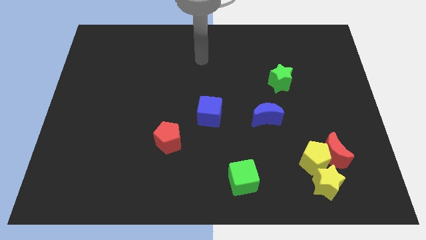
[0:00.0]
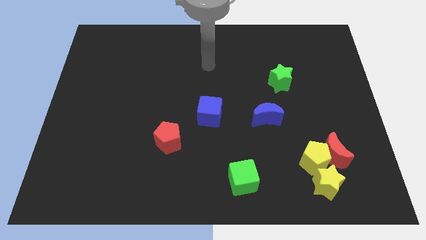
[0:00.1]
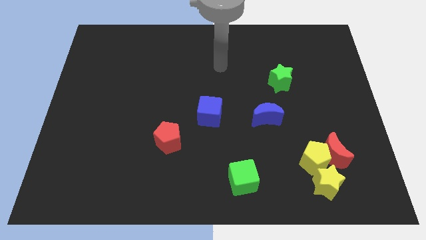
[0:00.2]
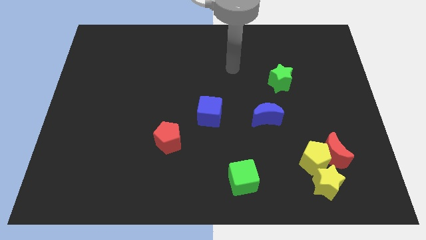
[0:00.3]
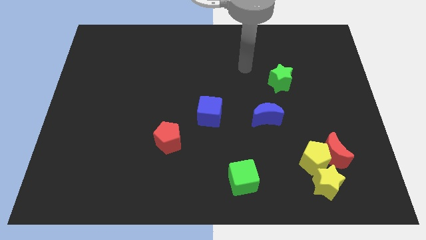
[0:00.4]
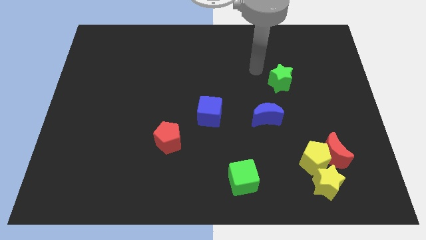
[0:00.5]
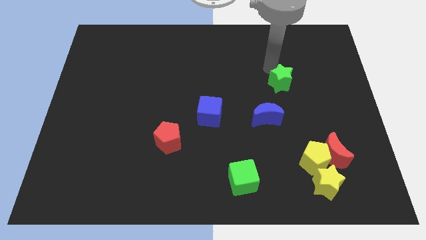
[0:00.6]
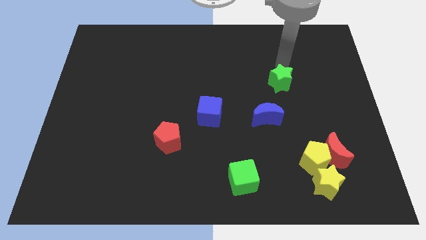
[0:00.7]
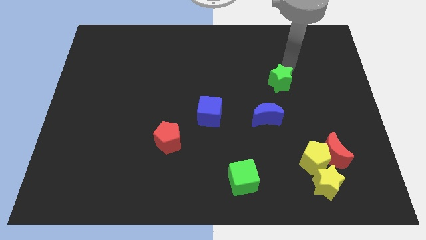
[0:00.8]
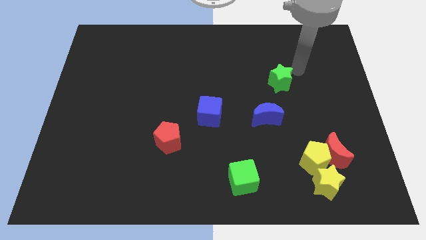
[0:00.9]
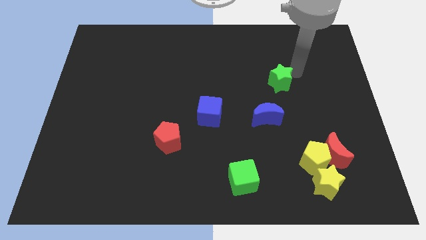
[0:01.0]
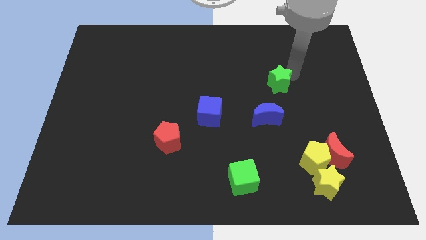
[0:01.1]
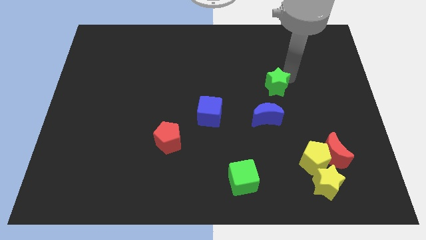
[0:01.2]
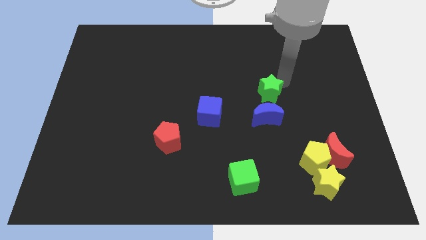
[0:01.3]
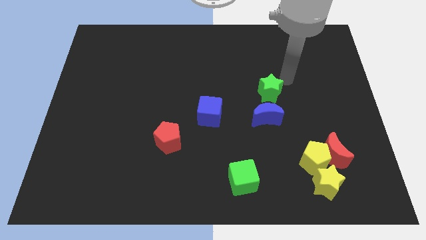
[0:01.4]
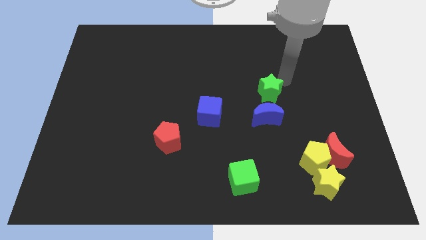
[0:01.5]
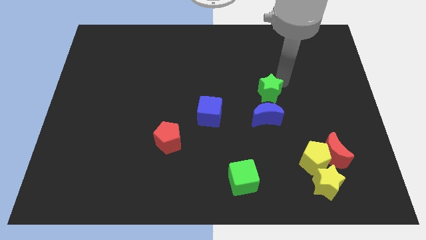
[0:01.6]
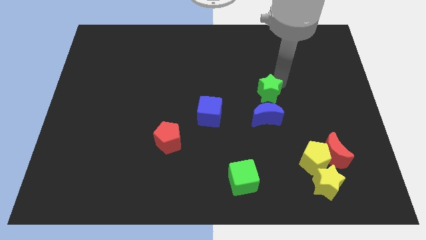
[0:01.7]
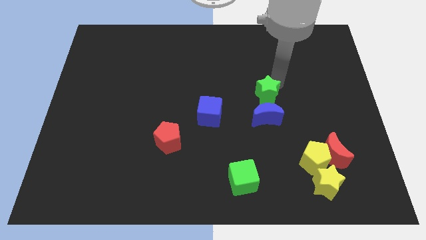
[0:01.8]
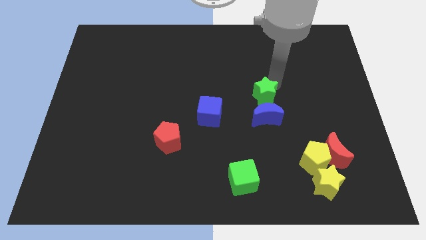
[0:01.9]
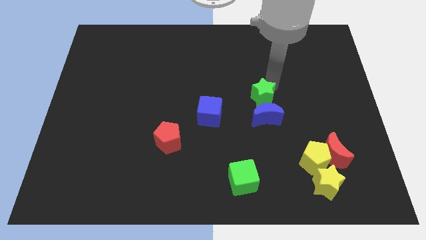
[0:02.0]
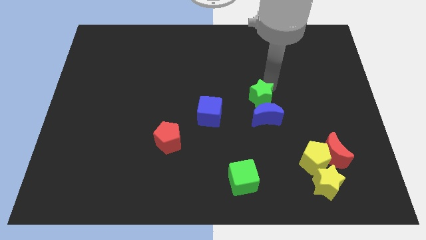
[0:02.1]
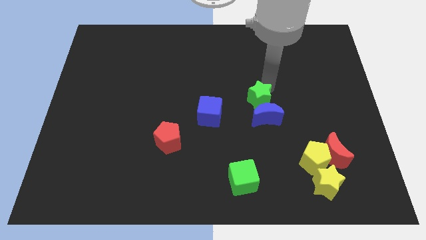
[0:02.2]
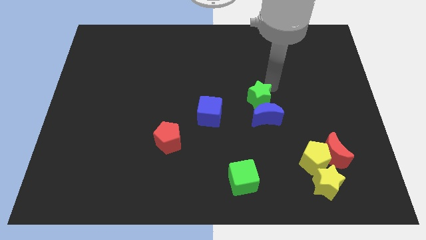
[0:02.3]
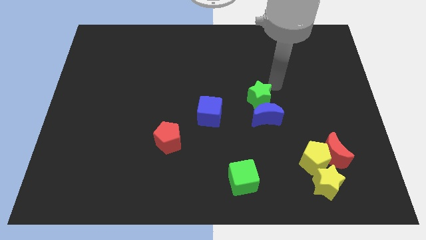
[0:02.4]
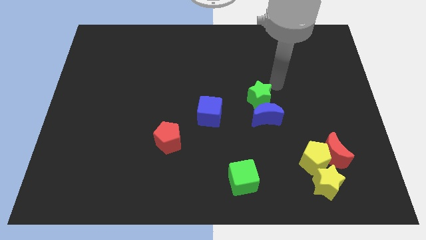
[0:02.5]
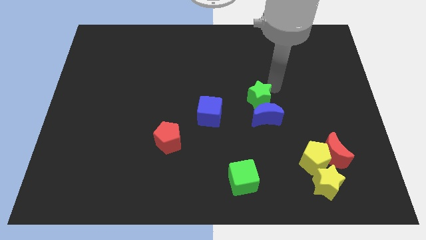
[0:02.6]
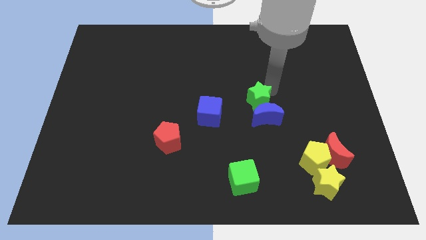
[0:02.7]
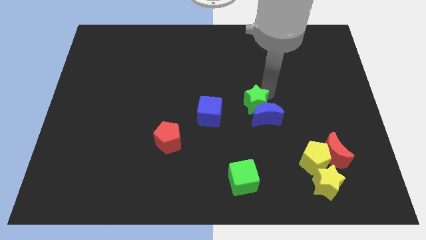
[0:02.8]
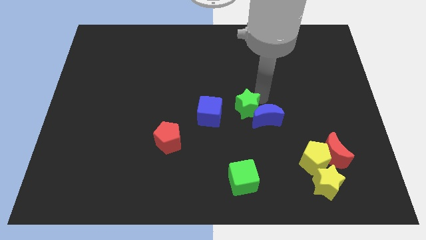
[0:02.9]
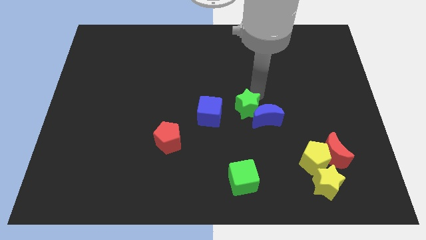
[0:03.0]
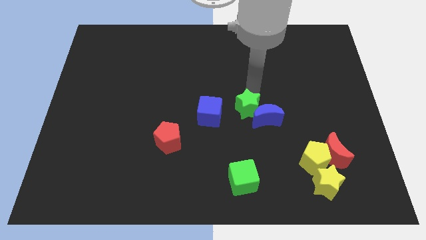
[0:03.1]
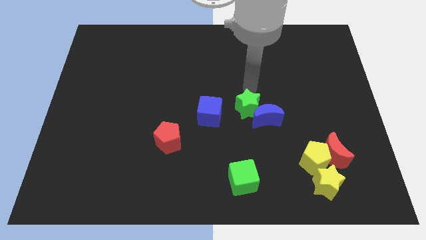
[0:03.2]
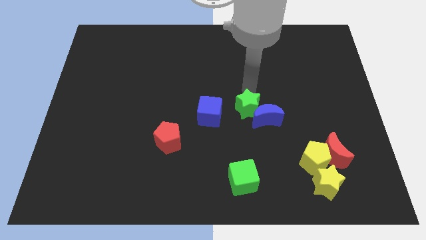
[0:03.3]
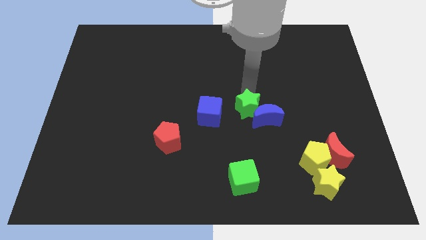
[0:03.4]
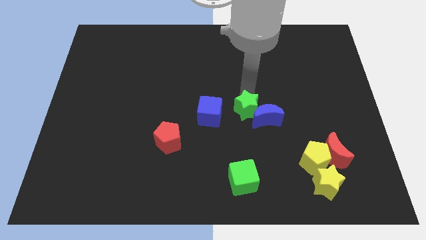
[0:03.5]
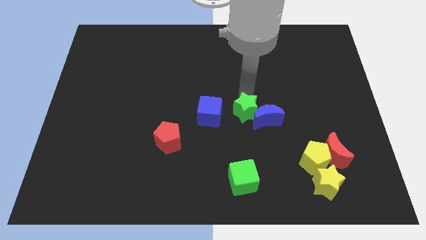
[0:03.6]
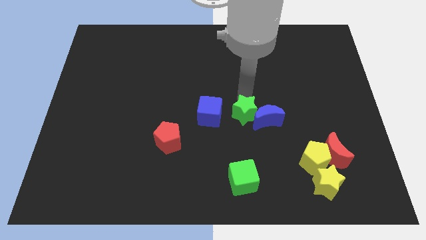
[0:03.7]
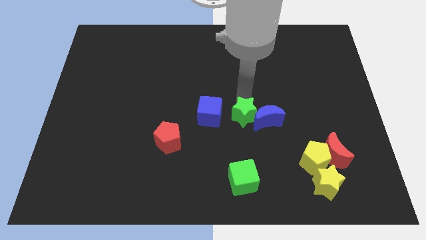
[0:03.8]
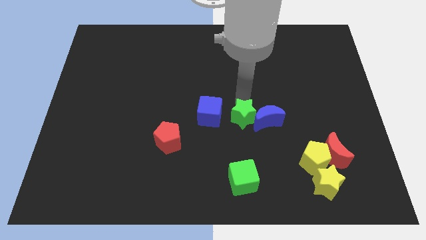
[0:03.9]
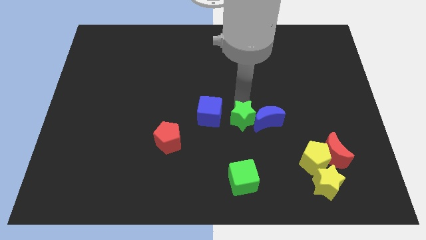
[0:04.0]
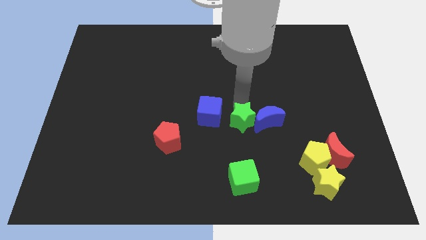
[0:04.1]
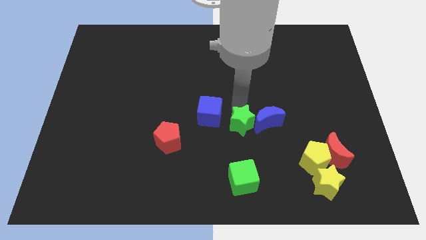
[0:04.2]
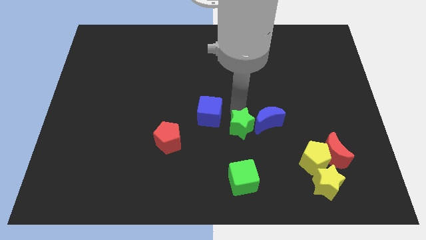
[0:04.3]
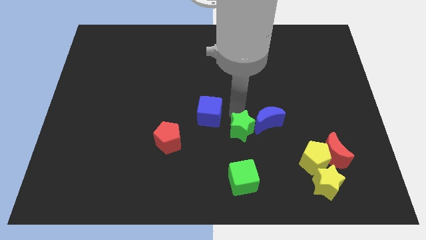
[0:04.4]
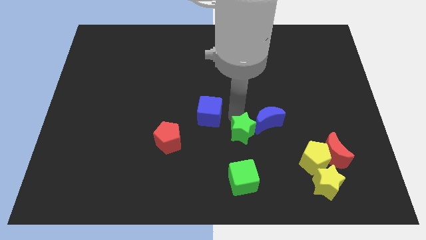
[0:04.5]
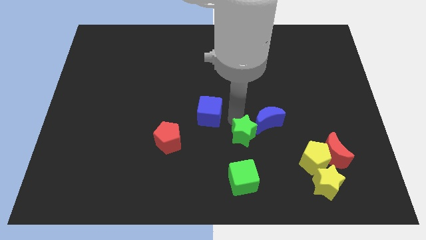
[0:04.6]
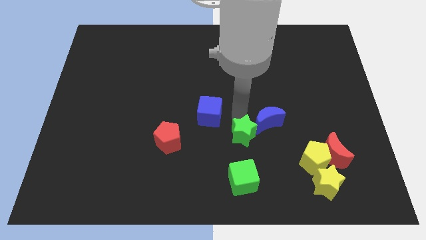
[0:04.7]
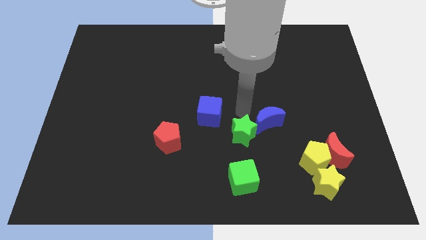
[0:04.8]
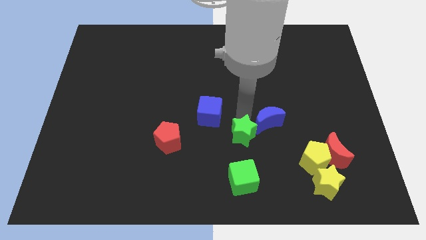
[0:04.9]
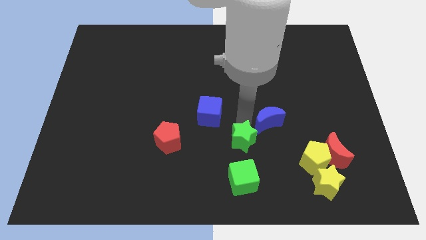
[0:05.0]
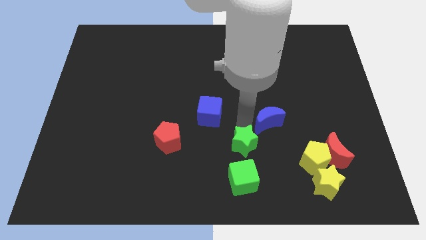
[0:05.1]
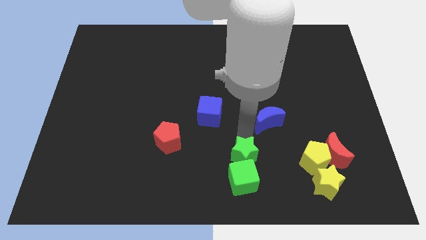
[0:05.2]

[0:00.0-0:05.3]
slide the green star close to the green cube

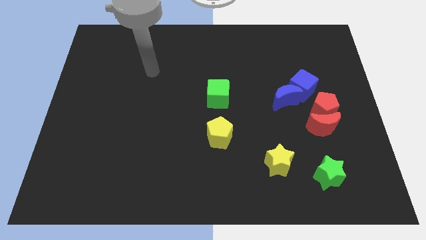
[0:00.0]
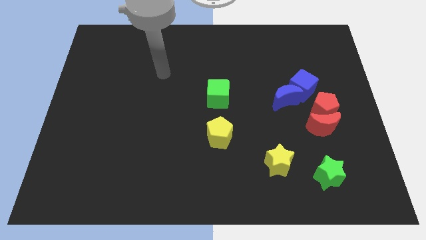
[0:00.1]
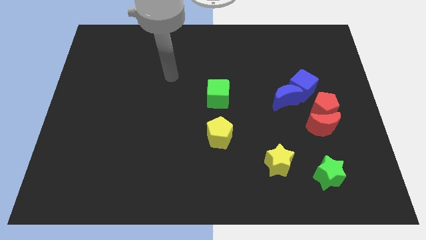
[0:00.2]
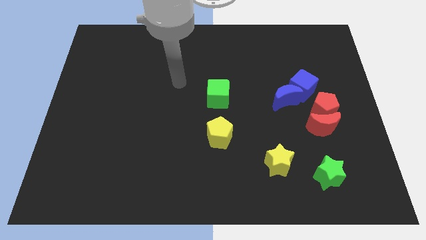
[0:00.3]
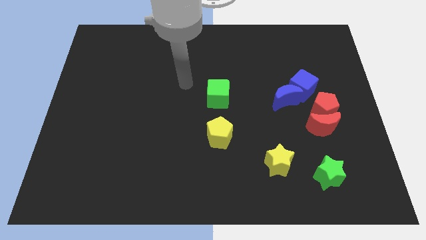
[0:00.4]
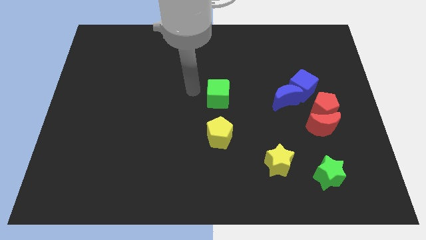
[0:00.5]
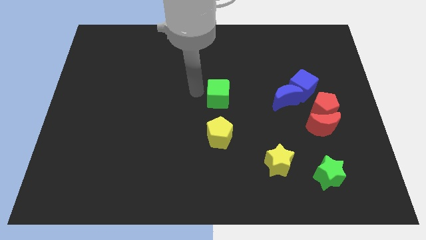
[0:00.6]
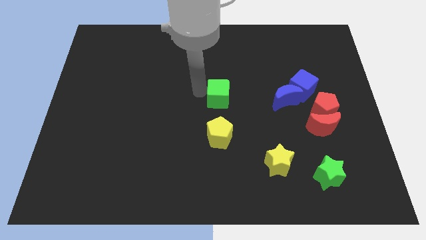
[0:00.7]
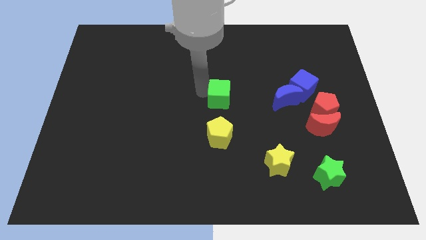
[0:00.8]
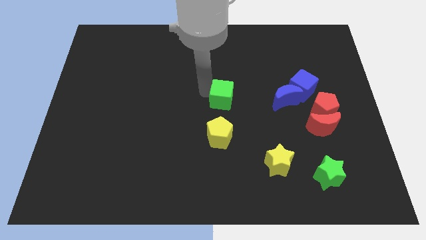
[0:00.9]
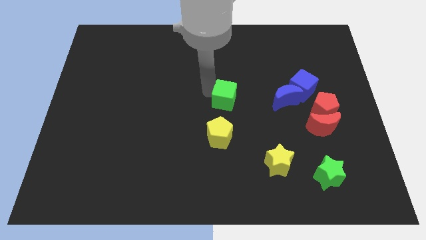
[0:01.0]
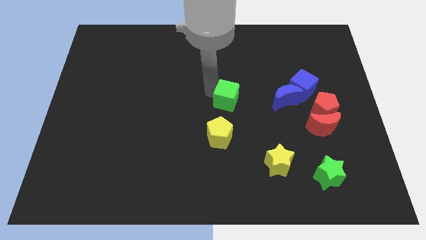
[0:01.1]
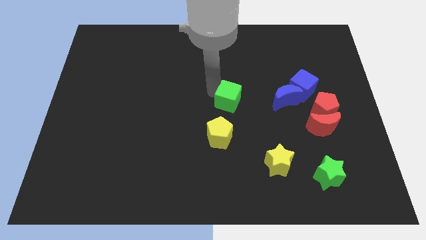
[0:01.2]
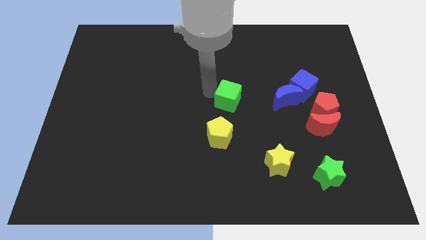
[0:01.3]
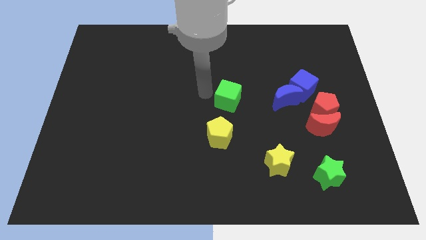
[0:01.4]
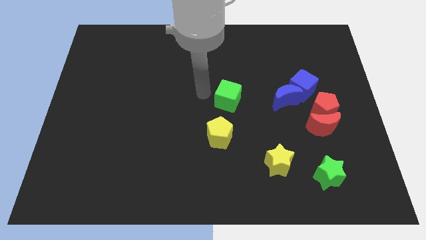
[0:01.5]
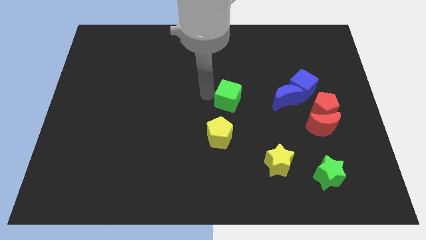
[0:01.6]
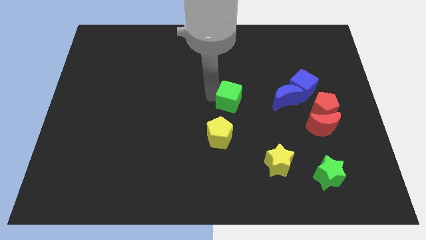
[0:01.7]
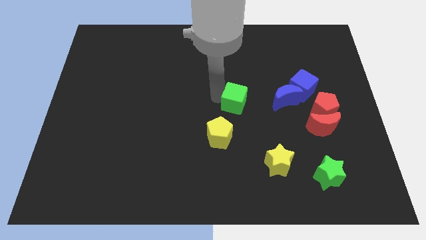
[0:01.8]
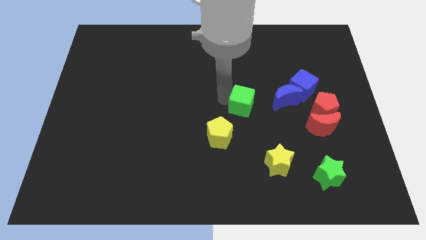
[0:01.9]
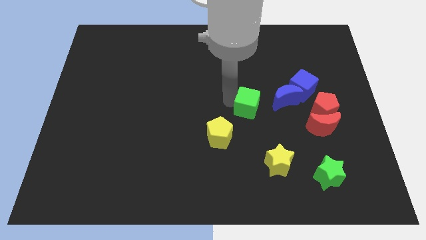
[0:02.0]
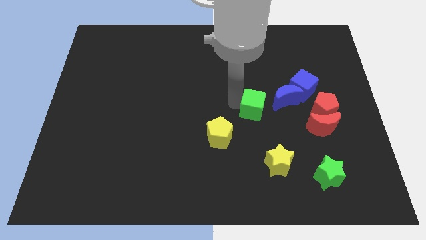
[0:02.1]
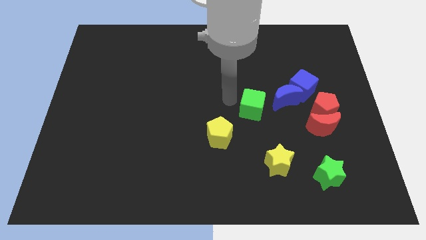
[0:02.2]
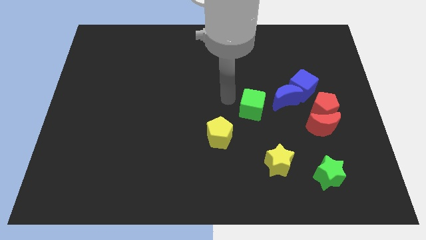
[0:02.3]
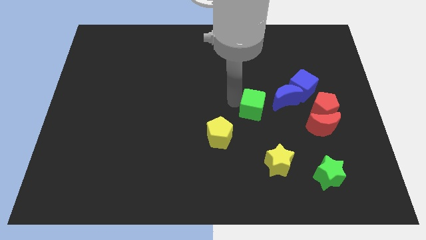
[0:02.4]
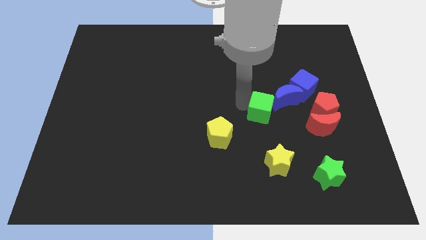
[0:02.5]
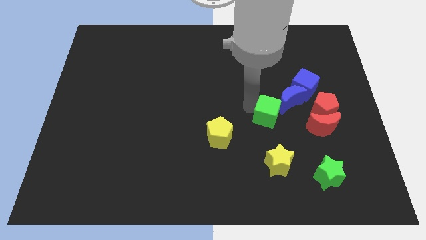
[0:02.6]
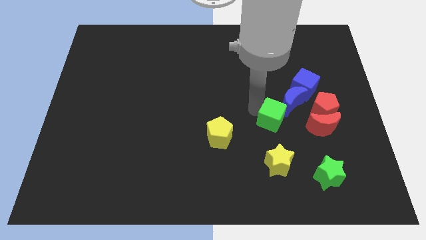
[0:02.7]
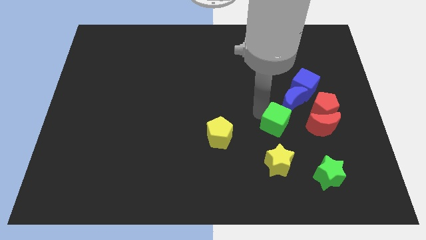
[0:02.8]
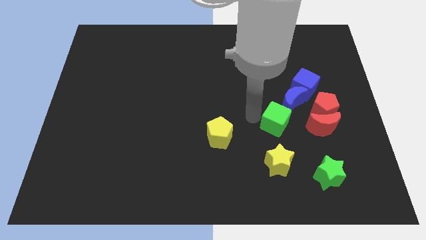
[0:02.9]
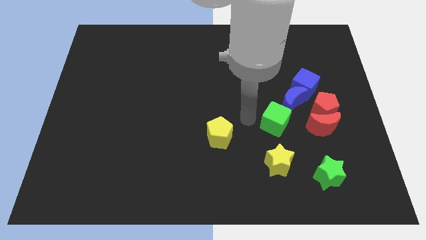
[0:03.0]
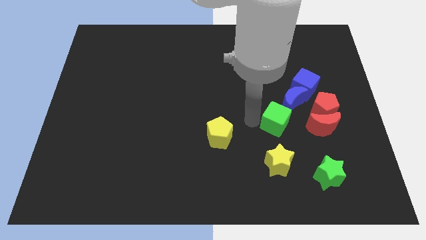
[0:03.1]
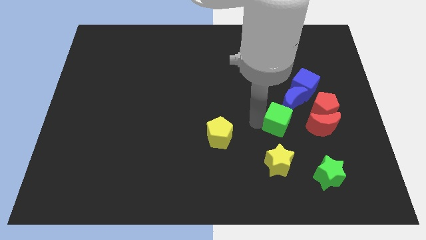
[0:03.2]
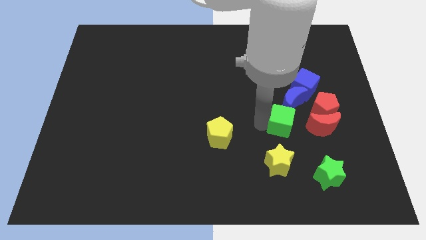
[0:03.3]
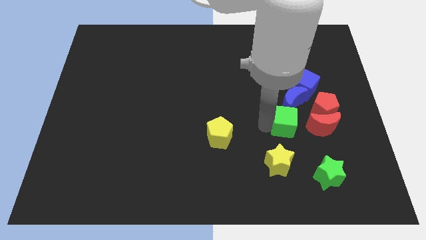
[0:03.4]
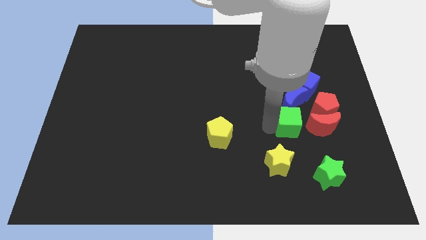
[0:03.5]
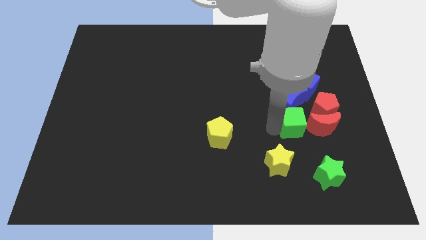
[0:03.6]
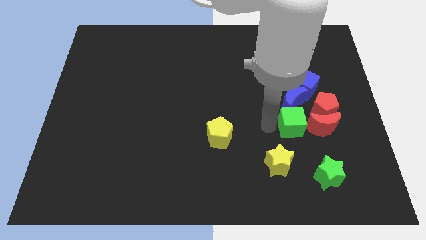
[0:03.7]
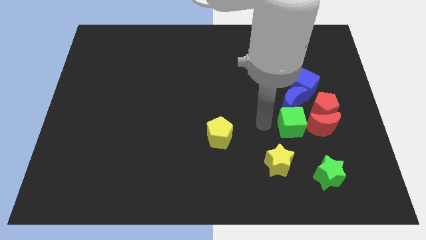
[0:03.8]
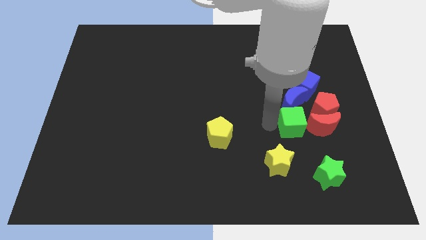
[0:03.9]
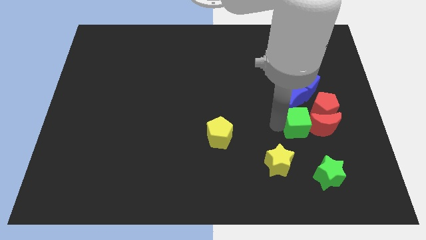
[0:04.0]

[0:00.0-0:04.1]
move the green cube to the red moon
